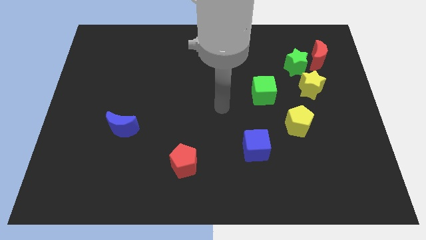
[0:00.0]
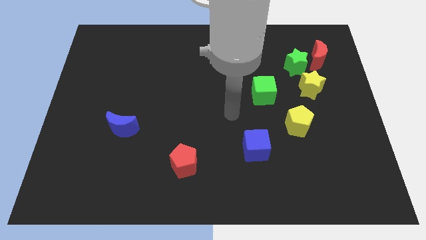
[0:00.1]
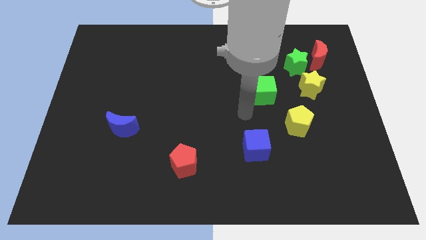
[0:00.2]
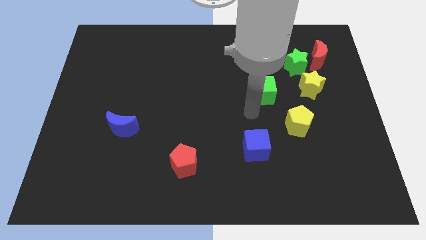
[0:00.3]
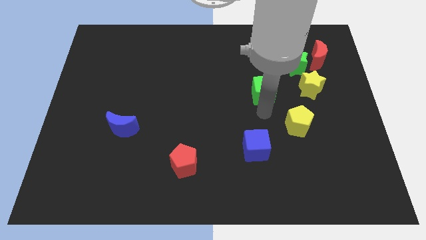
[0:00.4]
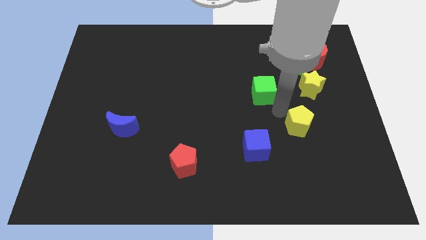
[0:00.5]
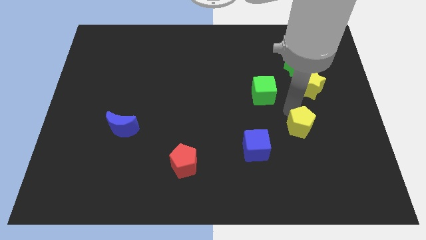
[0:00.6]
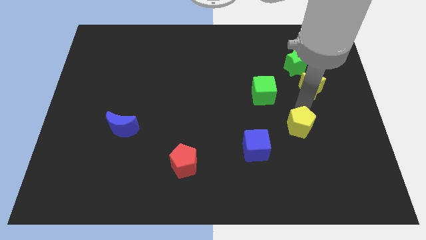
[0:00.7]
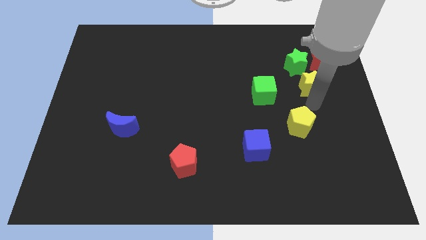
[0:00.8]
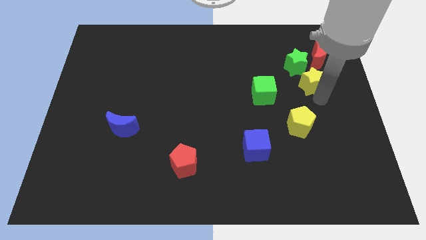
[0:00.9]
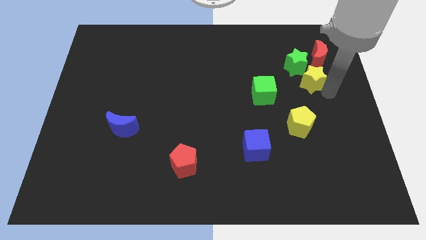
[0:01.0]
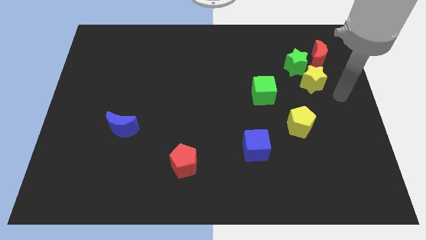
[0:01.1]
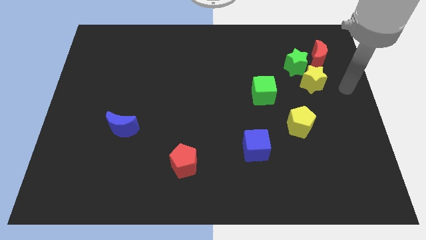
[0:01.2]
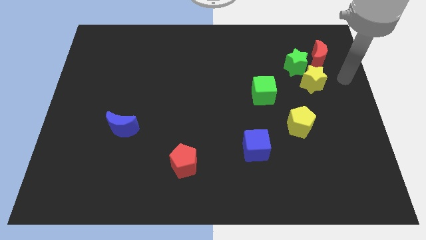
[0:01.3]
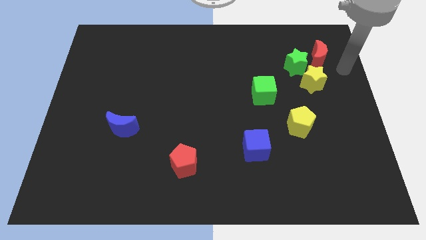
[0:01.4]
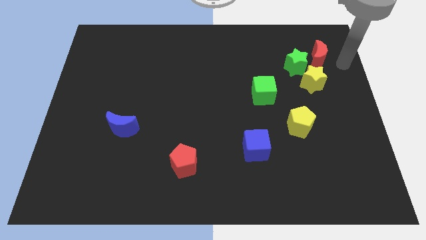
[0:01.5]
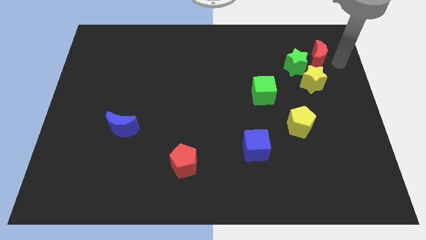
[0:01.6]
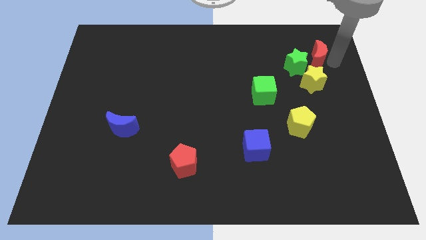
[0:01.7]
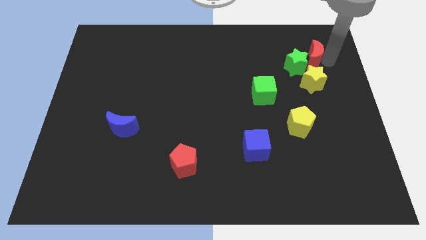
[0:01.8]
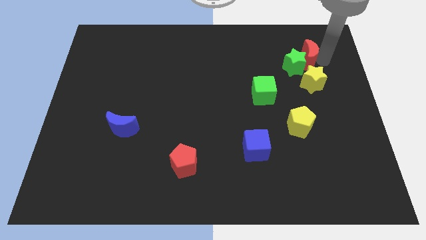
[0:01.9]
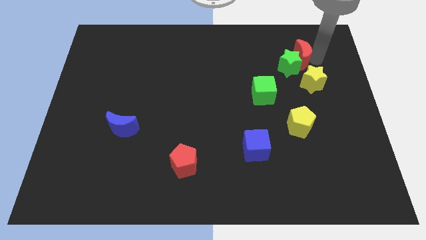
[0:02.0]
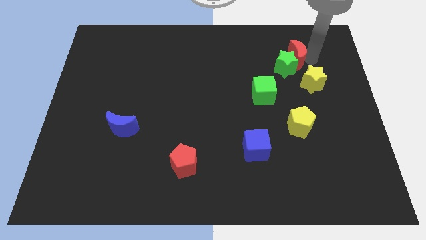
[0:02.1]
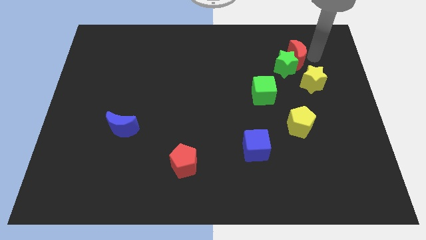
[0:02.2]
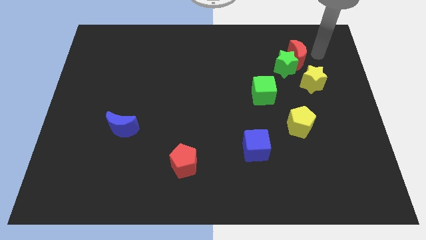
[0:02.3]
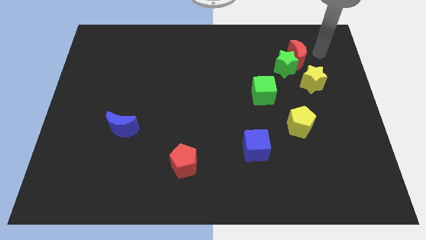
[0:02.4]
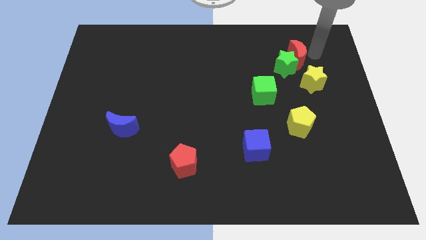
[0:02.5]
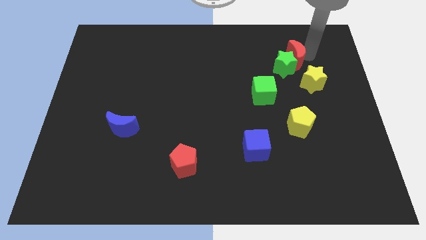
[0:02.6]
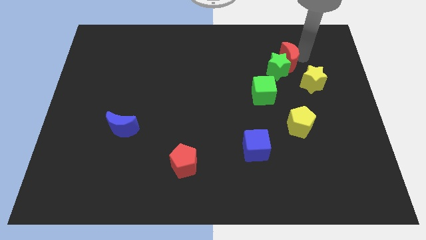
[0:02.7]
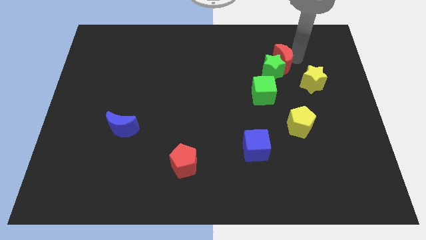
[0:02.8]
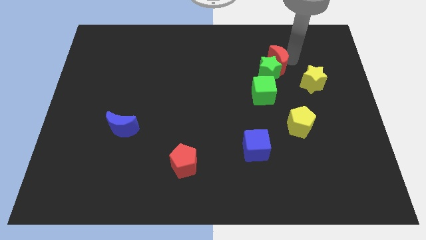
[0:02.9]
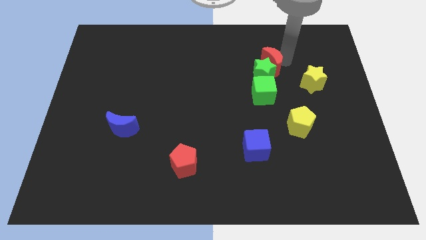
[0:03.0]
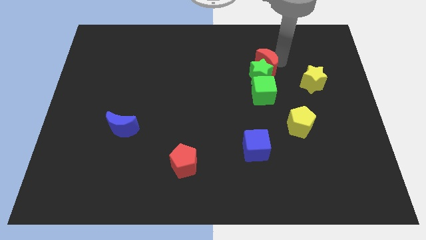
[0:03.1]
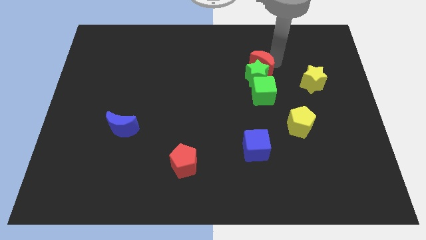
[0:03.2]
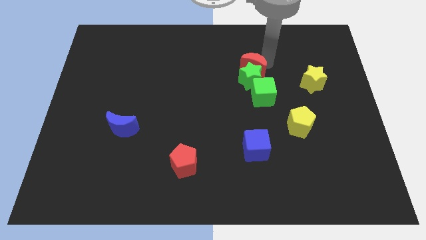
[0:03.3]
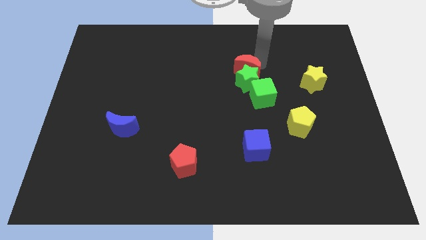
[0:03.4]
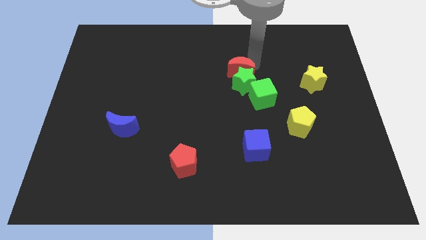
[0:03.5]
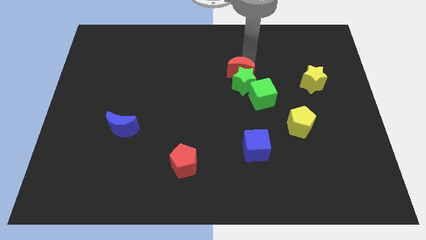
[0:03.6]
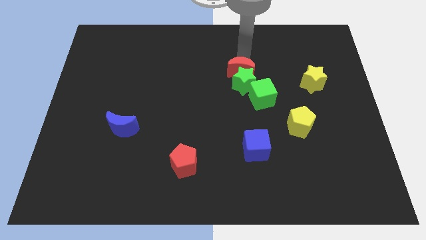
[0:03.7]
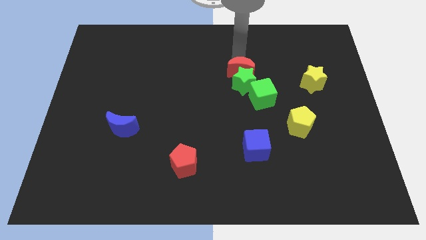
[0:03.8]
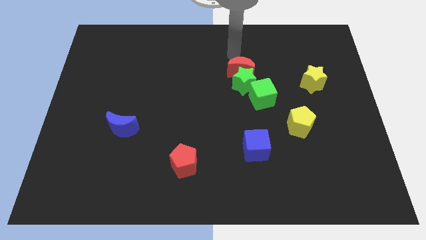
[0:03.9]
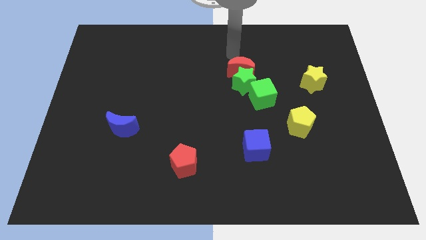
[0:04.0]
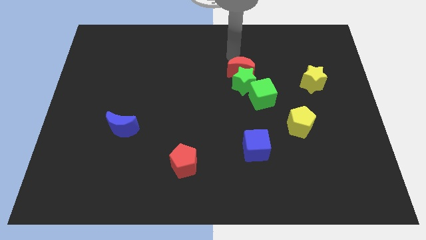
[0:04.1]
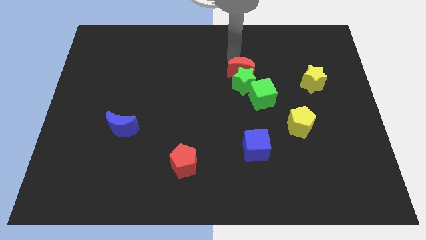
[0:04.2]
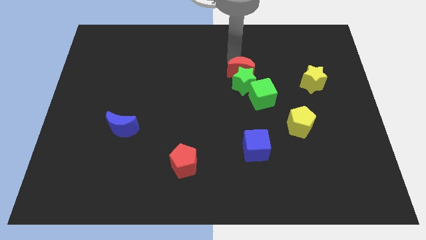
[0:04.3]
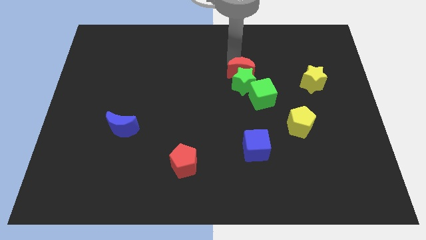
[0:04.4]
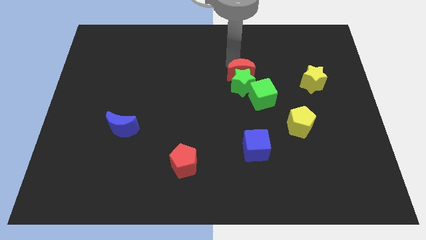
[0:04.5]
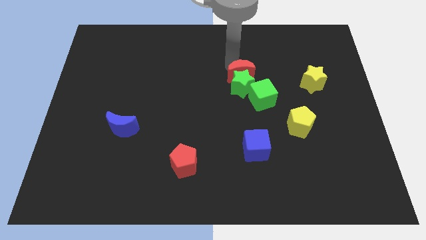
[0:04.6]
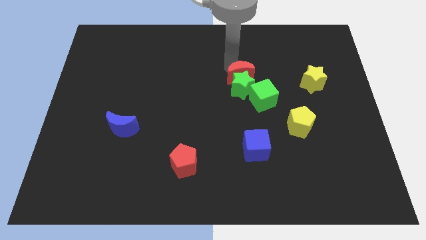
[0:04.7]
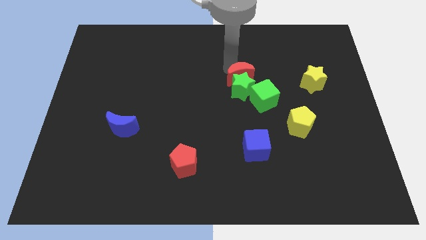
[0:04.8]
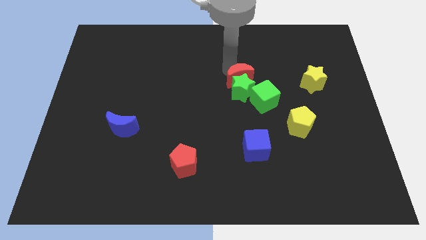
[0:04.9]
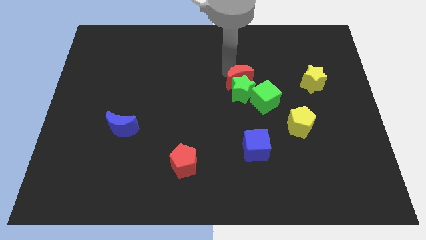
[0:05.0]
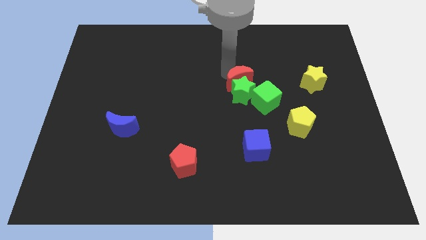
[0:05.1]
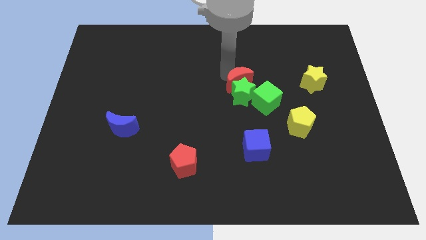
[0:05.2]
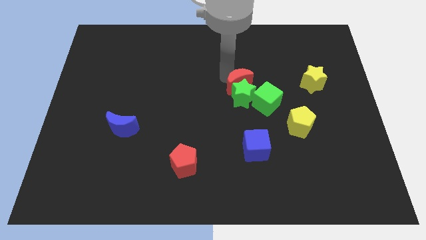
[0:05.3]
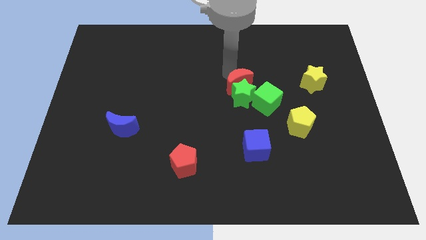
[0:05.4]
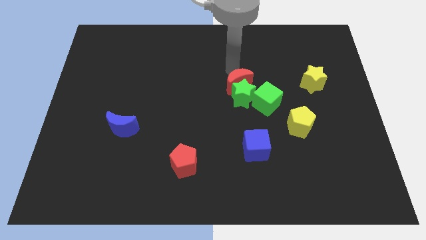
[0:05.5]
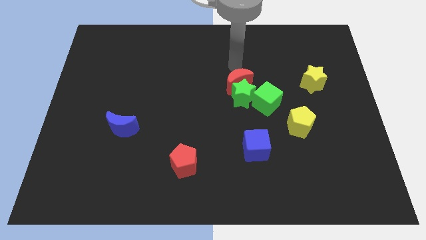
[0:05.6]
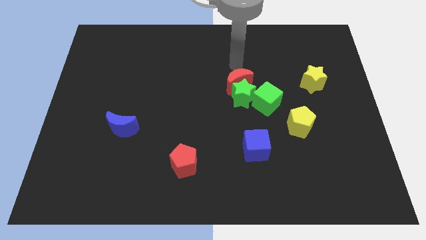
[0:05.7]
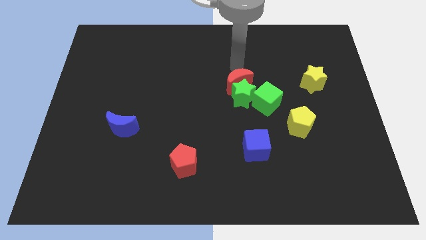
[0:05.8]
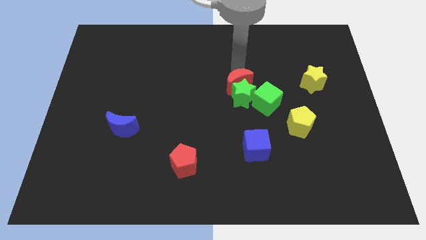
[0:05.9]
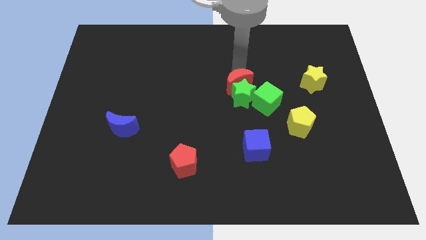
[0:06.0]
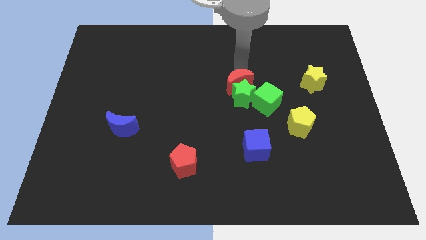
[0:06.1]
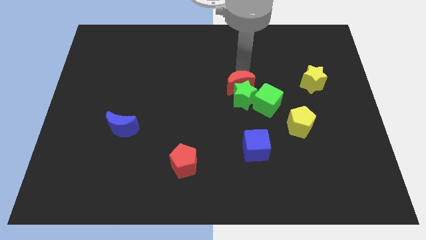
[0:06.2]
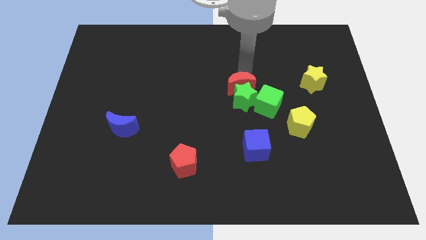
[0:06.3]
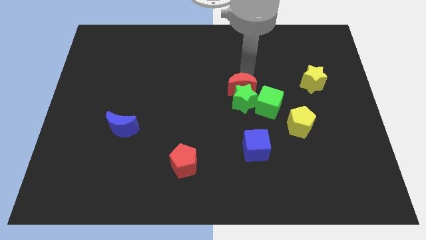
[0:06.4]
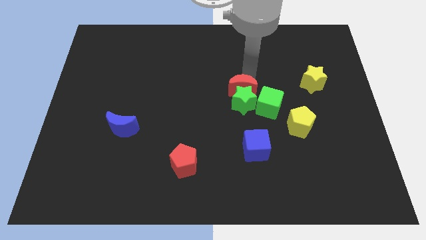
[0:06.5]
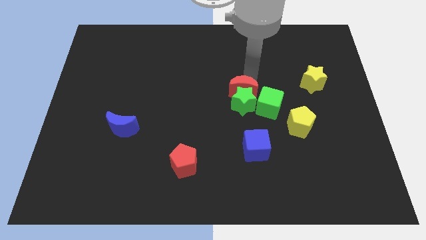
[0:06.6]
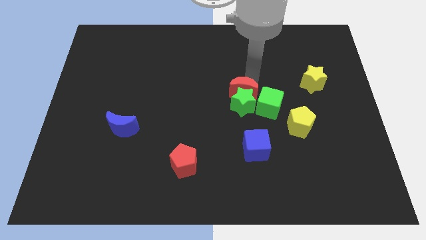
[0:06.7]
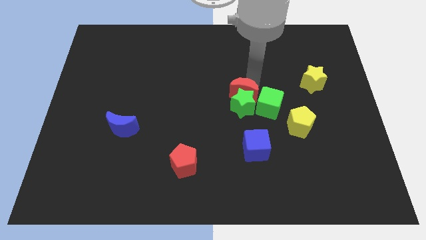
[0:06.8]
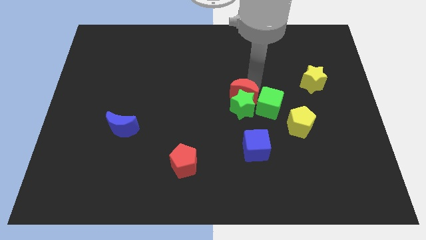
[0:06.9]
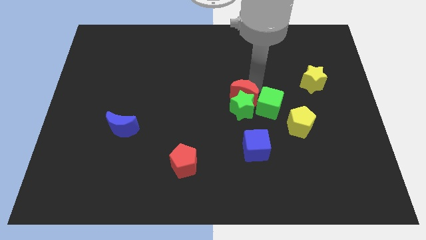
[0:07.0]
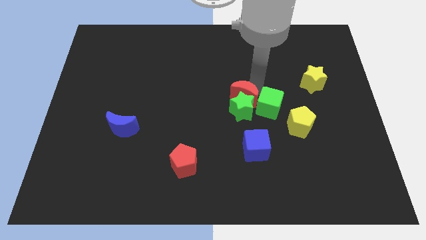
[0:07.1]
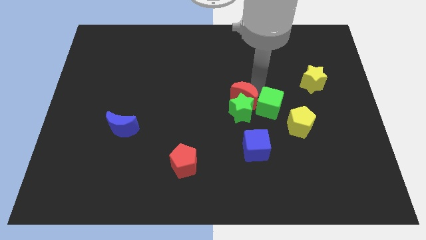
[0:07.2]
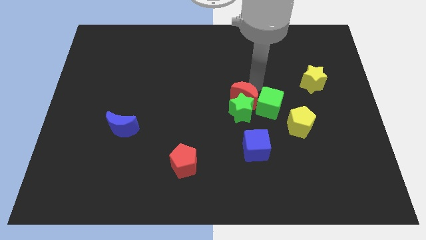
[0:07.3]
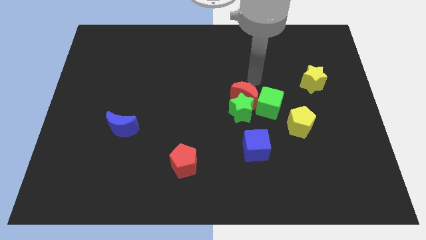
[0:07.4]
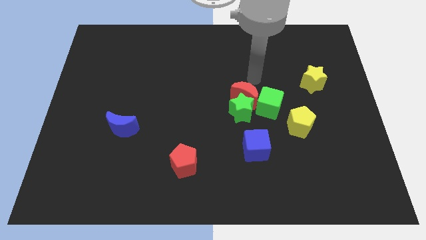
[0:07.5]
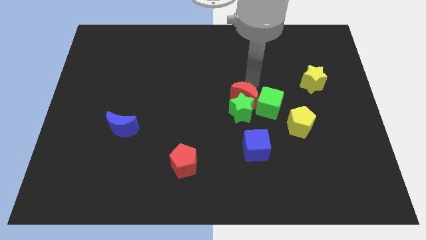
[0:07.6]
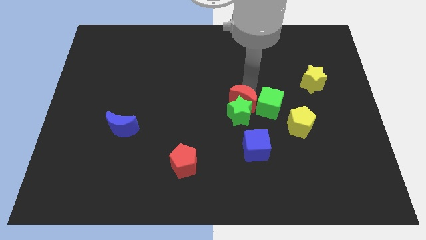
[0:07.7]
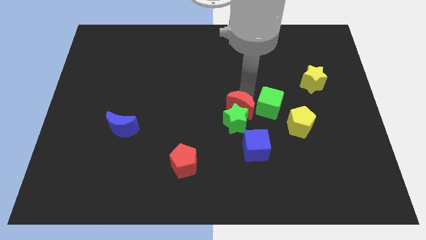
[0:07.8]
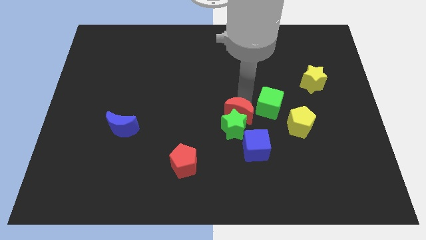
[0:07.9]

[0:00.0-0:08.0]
put the red moon to the top left side of the blue cube
